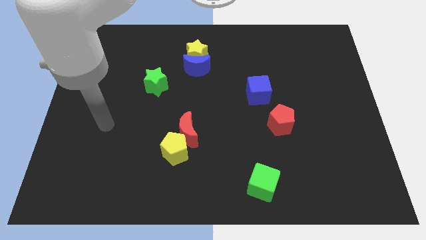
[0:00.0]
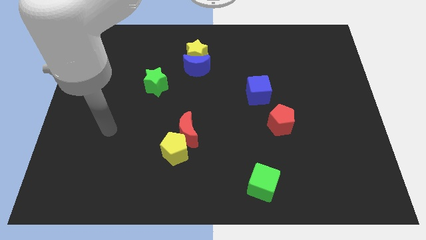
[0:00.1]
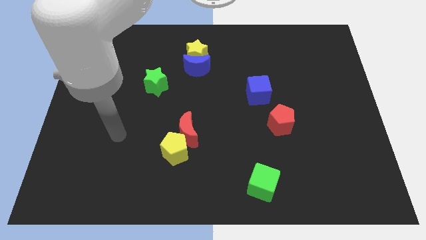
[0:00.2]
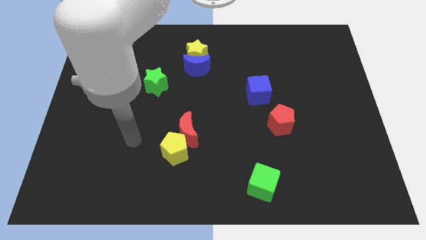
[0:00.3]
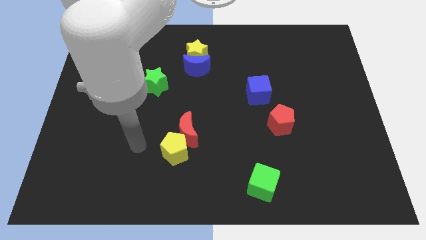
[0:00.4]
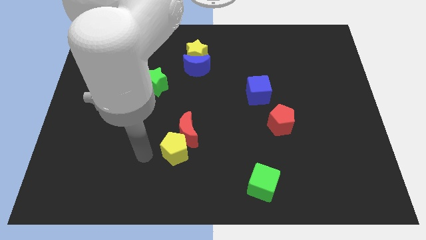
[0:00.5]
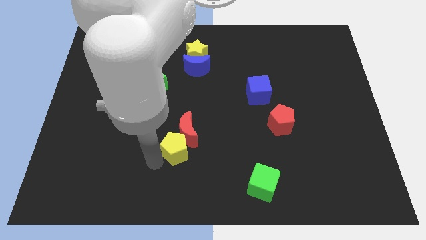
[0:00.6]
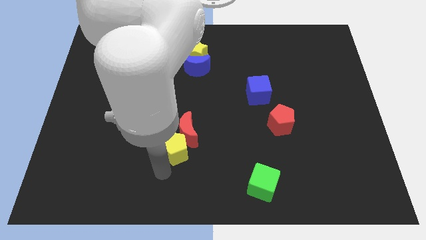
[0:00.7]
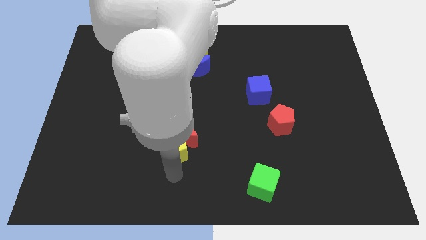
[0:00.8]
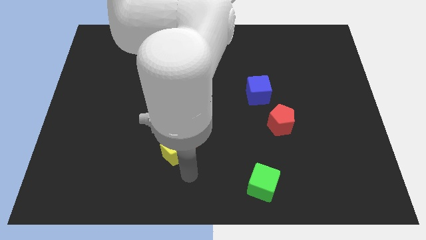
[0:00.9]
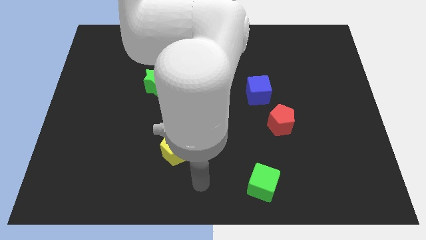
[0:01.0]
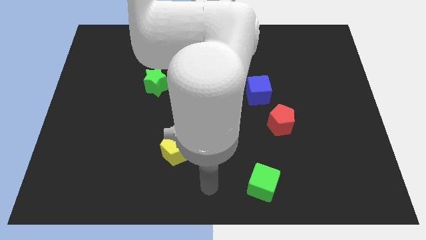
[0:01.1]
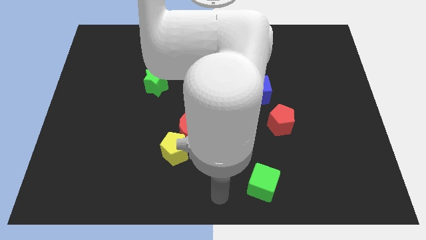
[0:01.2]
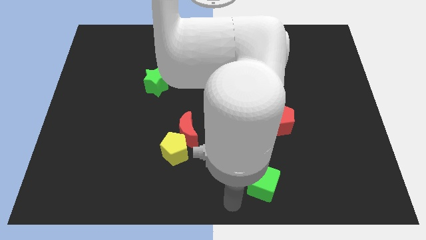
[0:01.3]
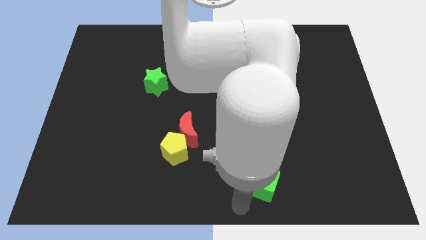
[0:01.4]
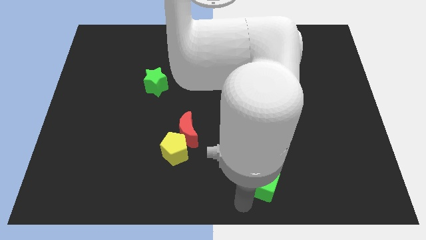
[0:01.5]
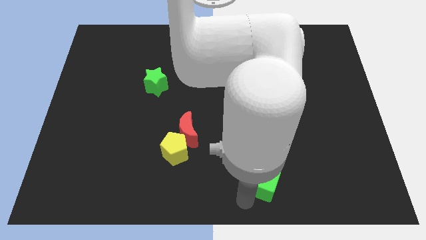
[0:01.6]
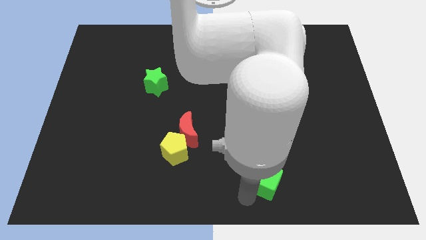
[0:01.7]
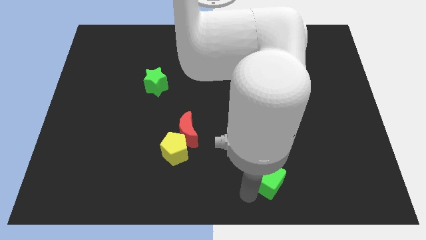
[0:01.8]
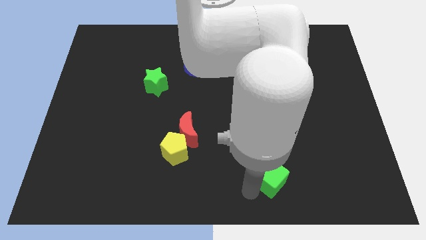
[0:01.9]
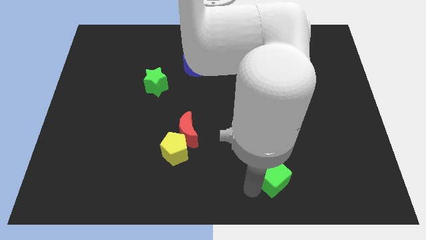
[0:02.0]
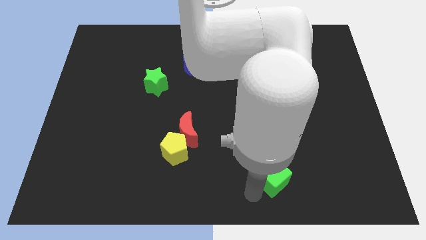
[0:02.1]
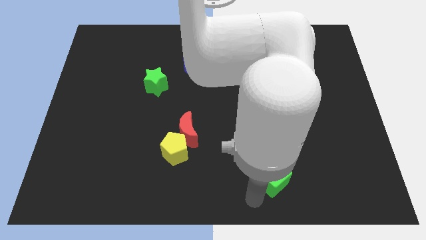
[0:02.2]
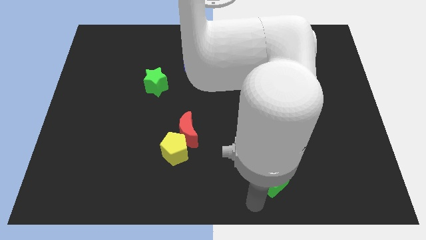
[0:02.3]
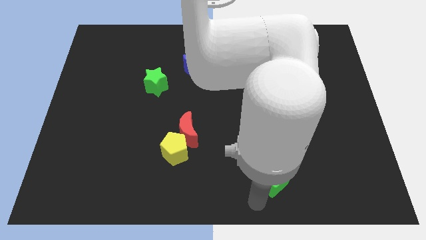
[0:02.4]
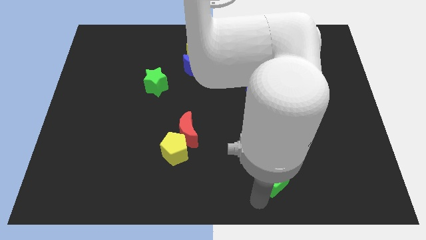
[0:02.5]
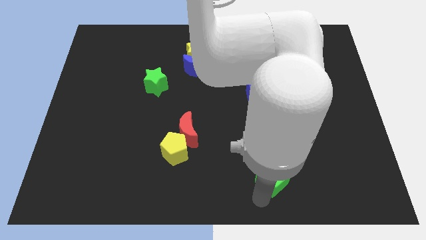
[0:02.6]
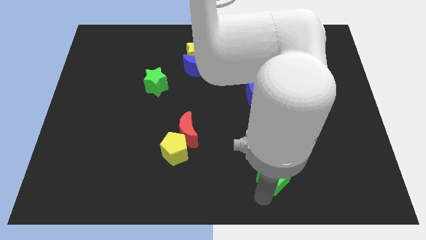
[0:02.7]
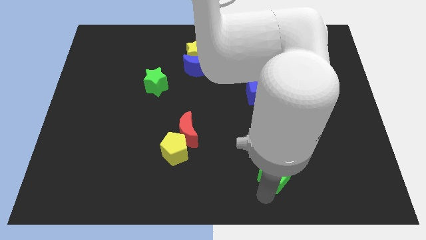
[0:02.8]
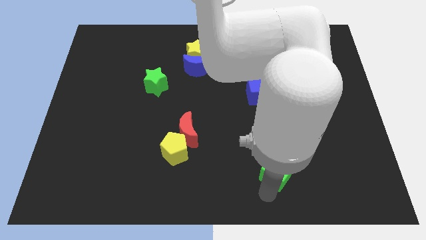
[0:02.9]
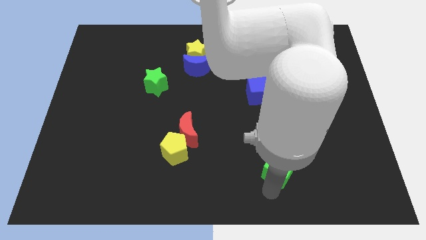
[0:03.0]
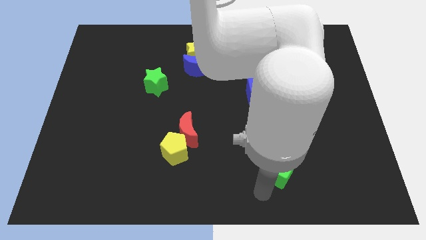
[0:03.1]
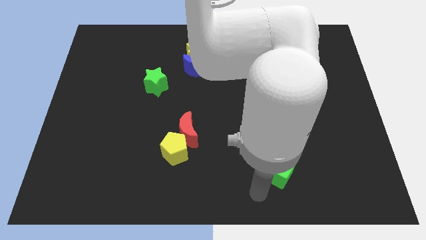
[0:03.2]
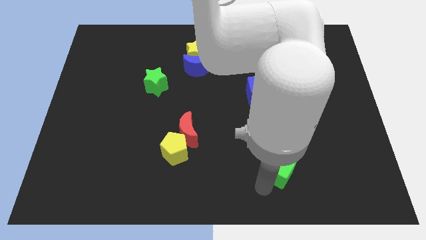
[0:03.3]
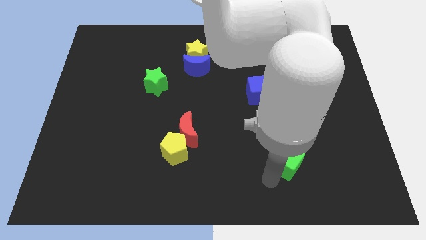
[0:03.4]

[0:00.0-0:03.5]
slightly move the green cube upwards and right diagonally

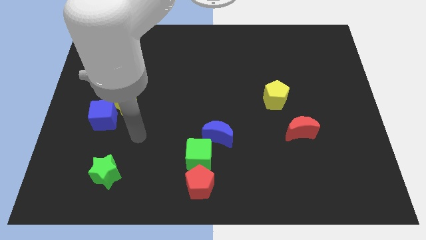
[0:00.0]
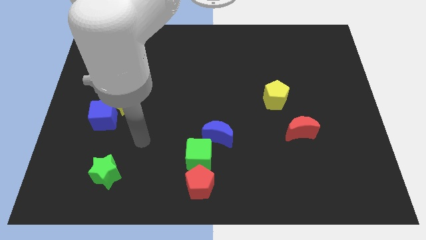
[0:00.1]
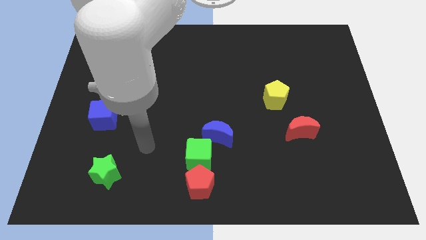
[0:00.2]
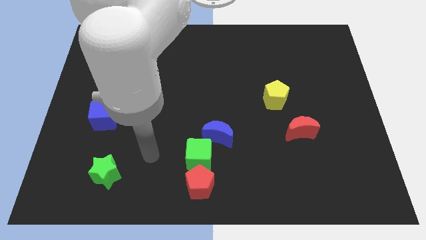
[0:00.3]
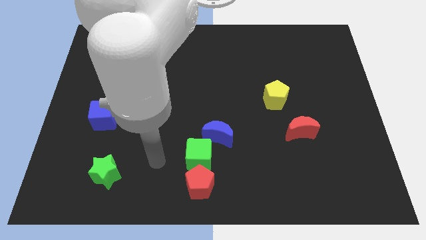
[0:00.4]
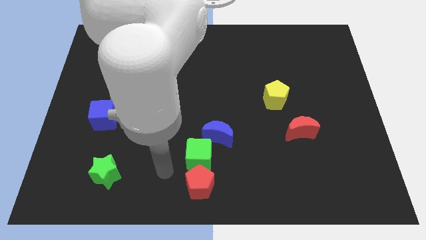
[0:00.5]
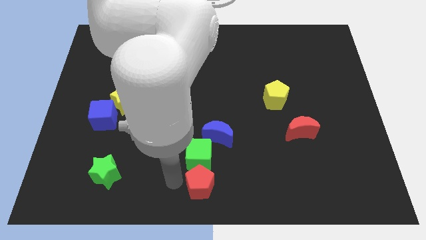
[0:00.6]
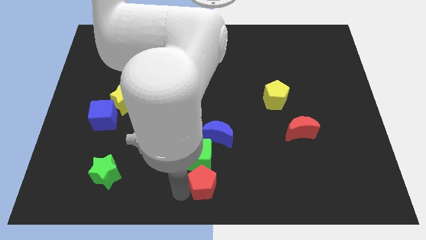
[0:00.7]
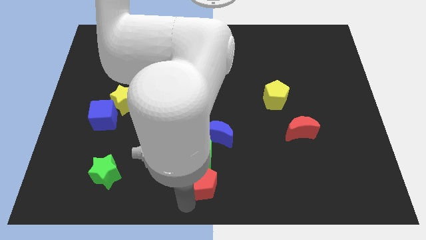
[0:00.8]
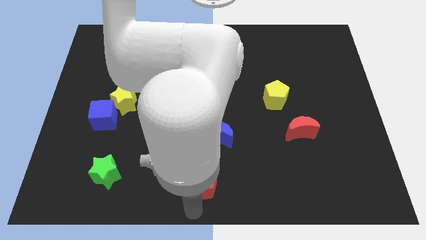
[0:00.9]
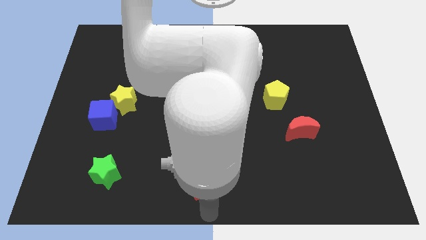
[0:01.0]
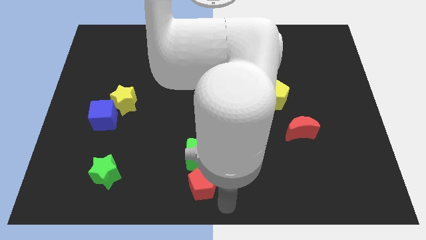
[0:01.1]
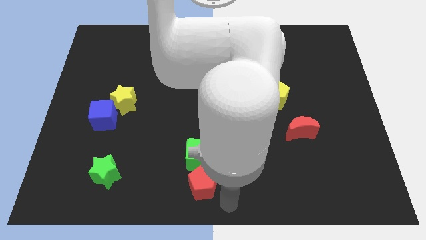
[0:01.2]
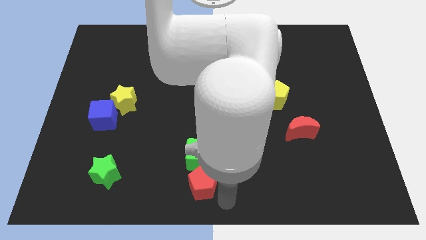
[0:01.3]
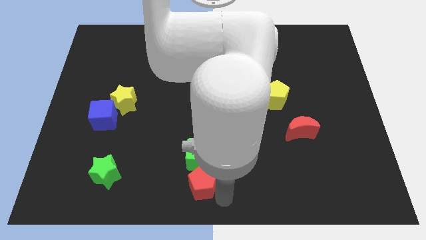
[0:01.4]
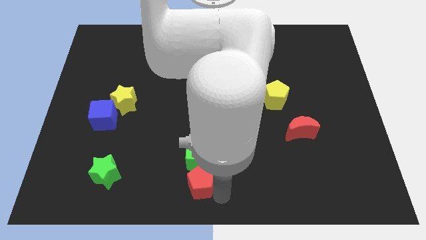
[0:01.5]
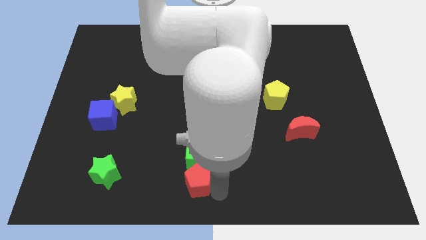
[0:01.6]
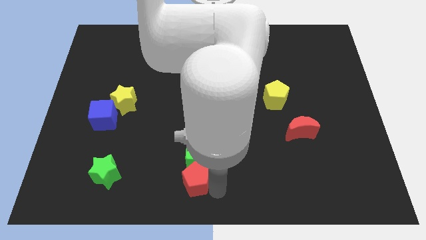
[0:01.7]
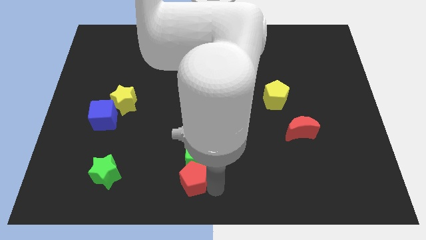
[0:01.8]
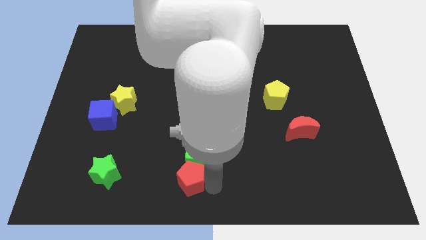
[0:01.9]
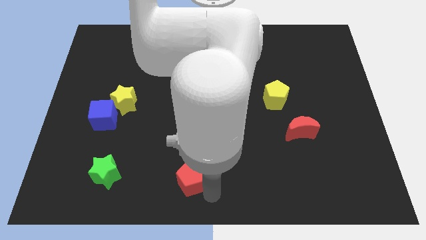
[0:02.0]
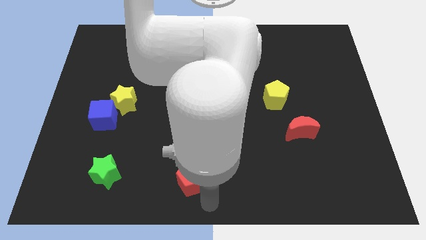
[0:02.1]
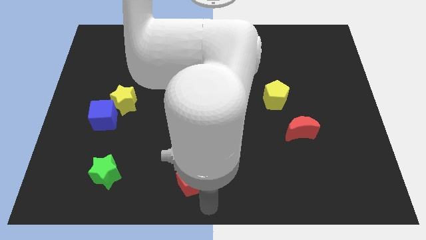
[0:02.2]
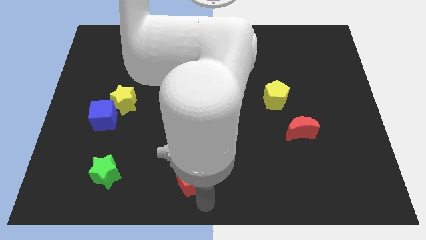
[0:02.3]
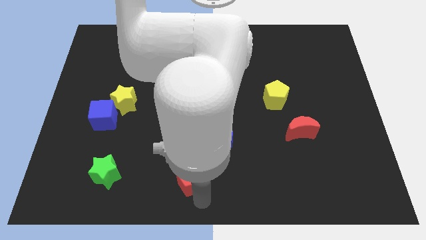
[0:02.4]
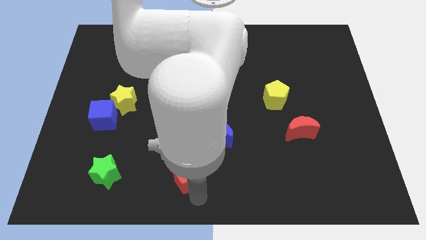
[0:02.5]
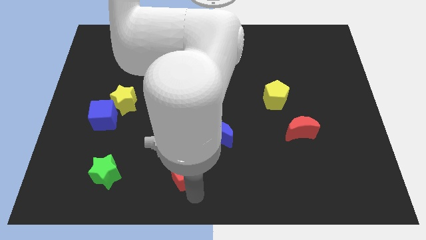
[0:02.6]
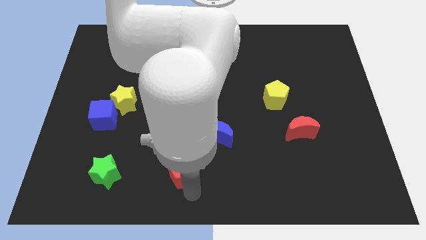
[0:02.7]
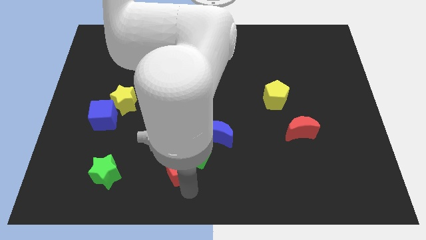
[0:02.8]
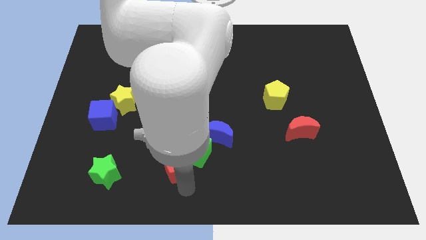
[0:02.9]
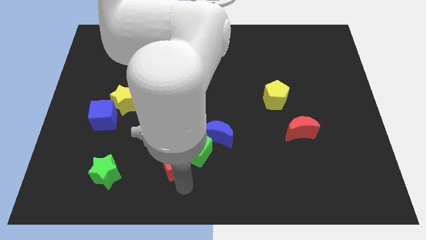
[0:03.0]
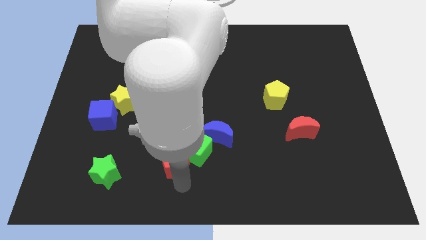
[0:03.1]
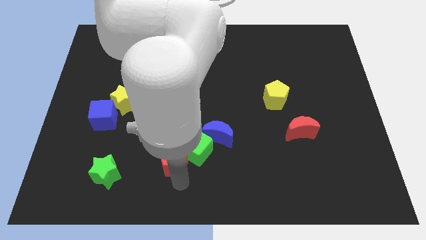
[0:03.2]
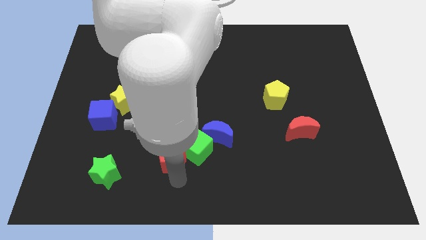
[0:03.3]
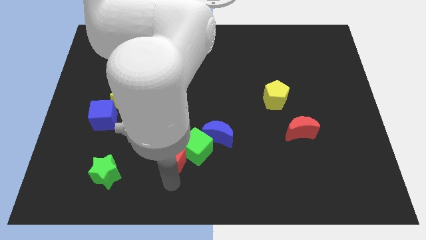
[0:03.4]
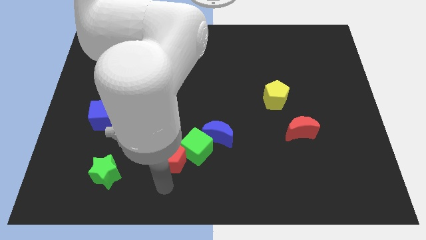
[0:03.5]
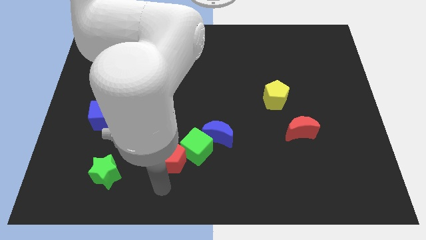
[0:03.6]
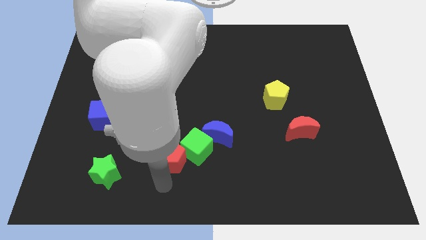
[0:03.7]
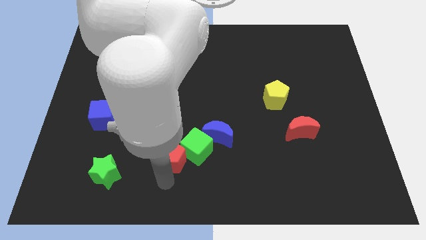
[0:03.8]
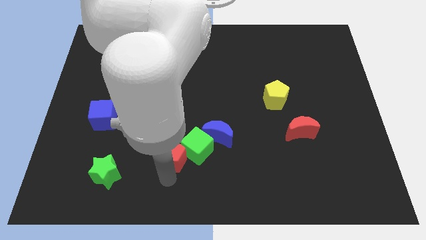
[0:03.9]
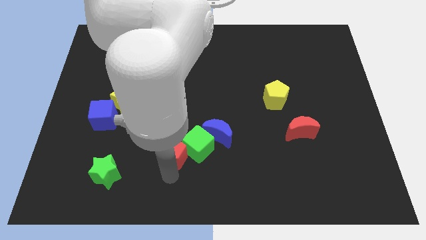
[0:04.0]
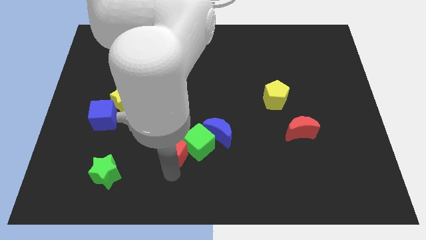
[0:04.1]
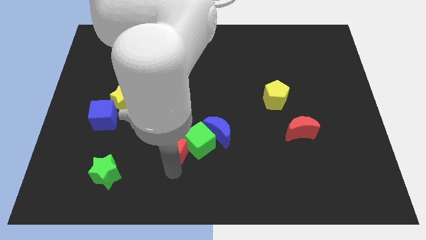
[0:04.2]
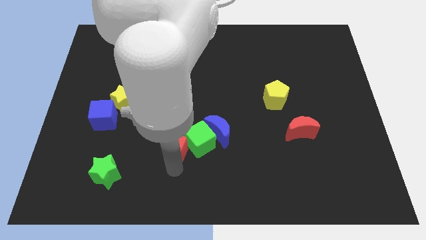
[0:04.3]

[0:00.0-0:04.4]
slightly move the red pentagon upwards

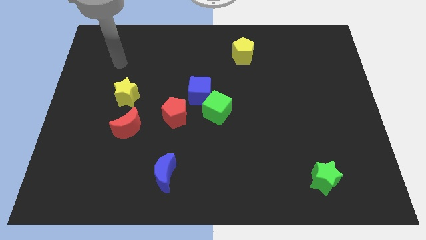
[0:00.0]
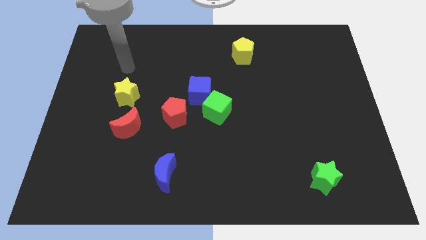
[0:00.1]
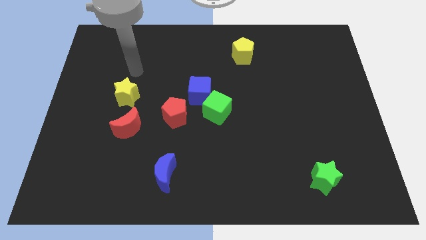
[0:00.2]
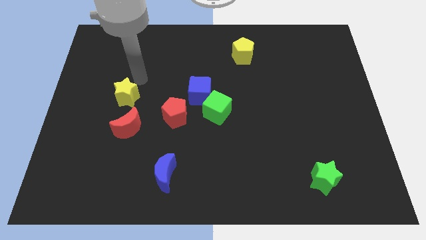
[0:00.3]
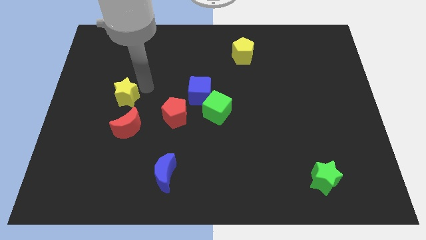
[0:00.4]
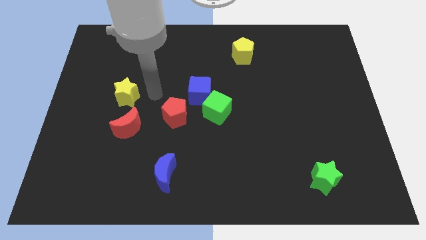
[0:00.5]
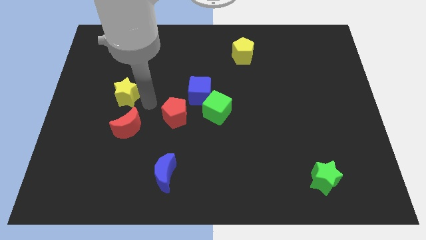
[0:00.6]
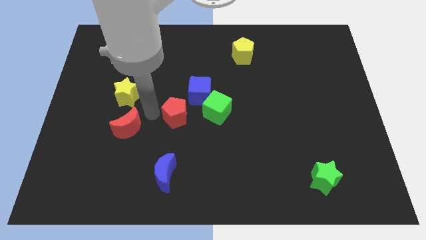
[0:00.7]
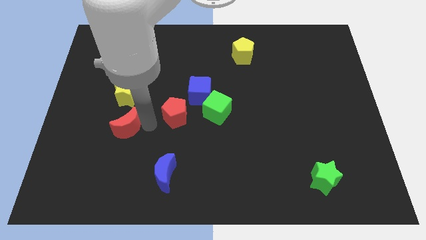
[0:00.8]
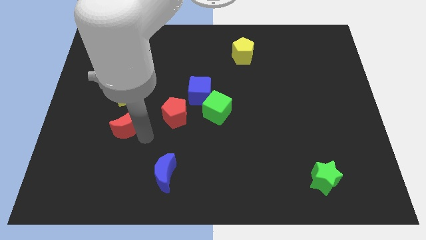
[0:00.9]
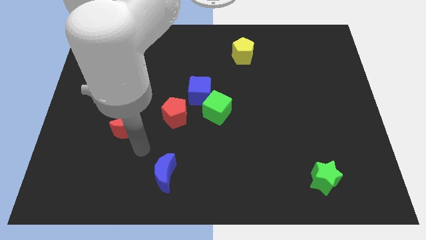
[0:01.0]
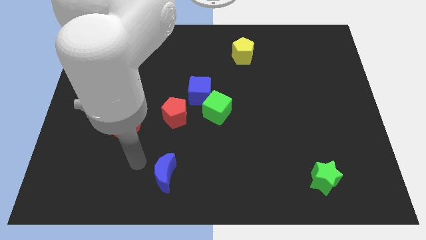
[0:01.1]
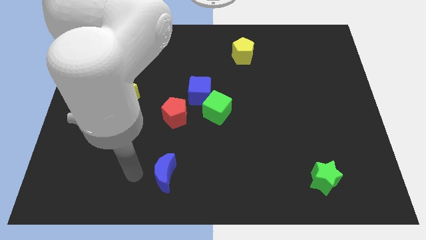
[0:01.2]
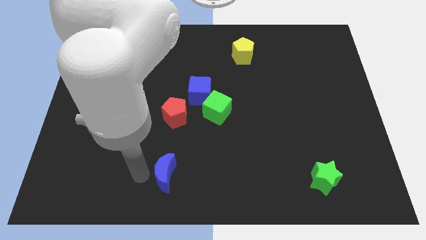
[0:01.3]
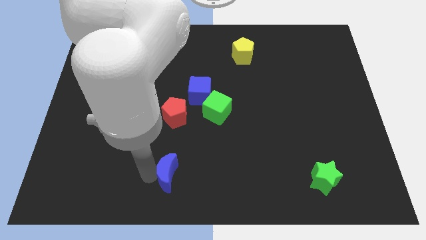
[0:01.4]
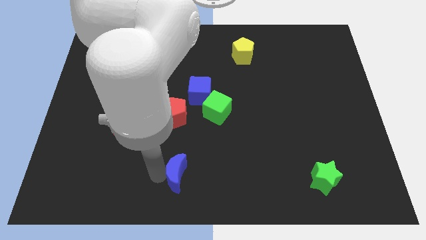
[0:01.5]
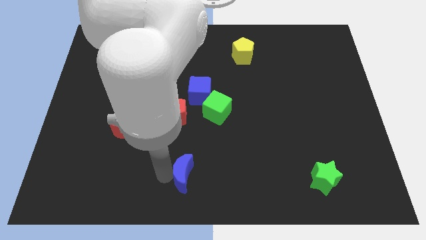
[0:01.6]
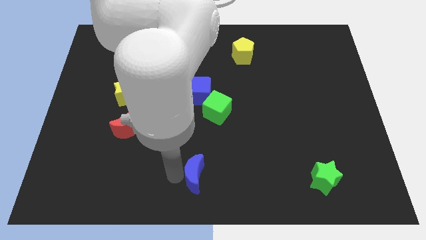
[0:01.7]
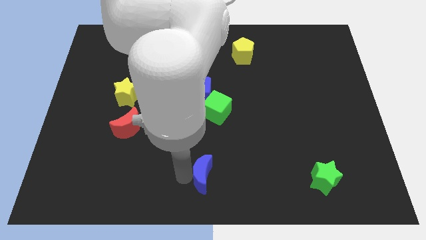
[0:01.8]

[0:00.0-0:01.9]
move the blue moon a little right
